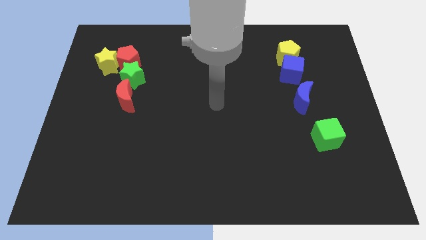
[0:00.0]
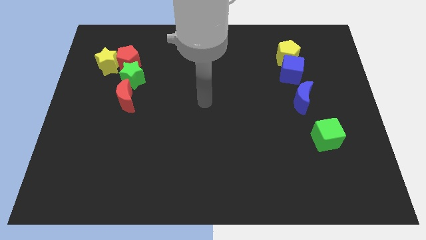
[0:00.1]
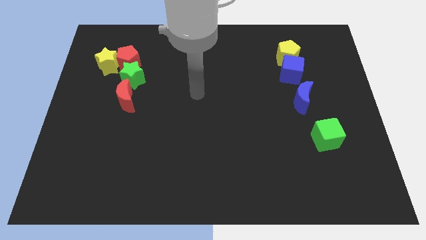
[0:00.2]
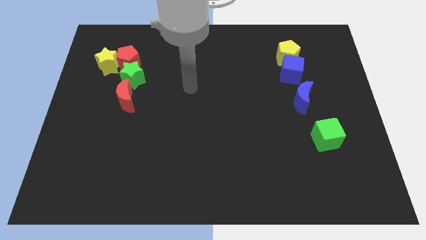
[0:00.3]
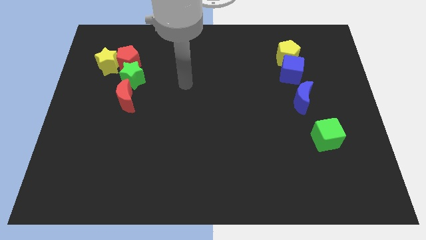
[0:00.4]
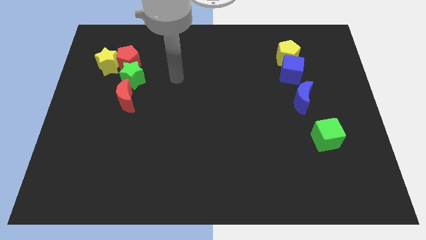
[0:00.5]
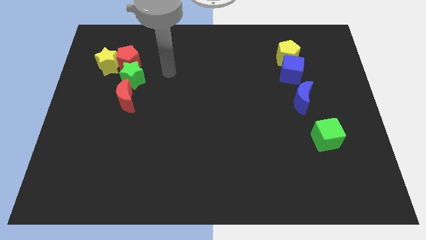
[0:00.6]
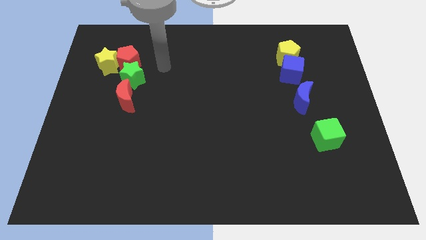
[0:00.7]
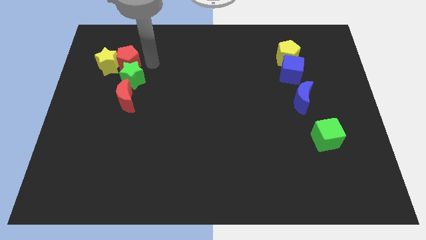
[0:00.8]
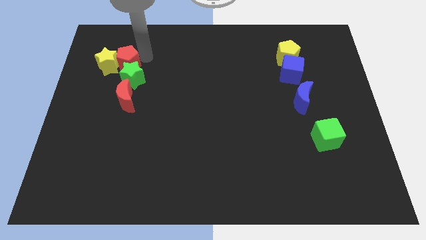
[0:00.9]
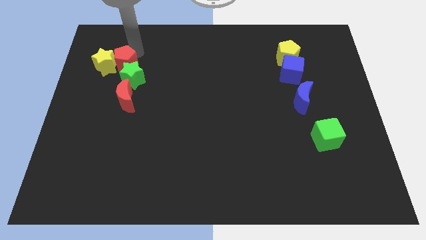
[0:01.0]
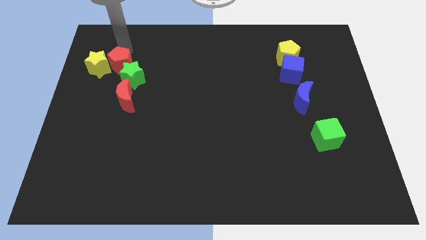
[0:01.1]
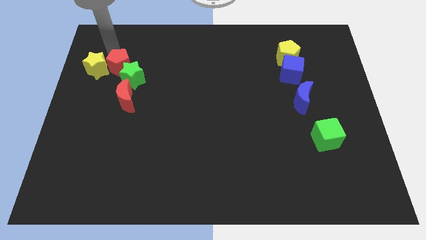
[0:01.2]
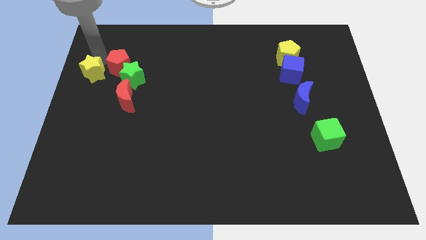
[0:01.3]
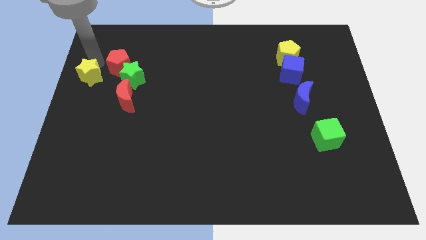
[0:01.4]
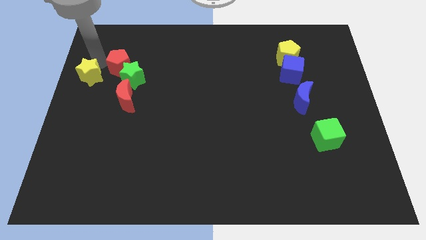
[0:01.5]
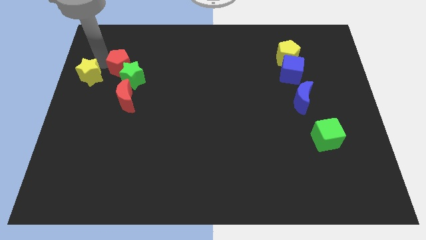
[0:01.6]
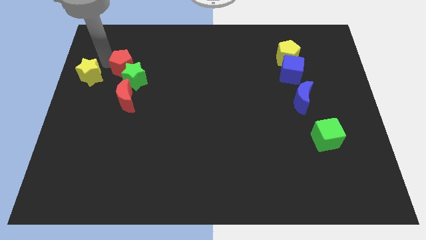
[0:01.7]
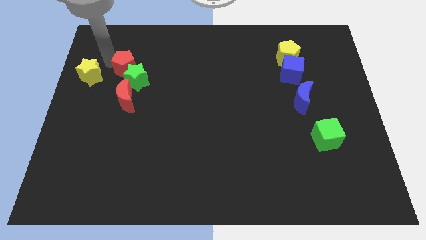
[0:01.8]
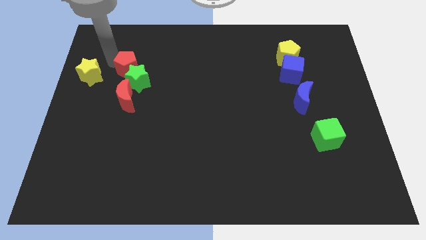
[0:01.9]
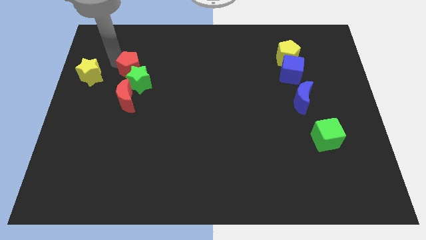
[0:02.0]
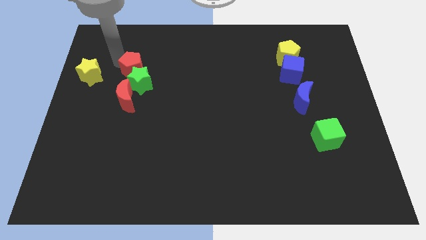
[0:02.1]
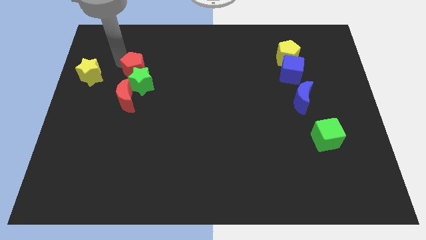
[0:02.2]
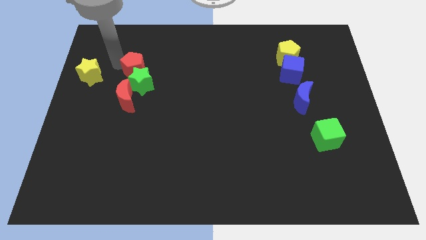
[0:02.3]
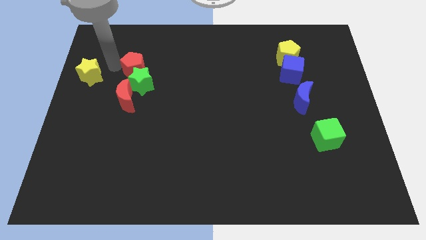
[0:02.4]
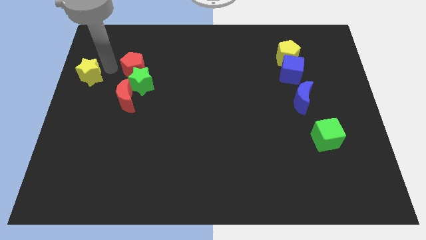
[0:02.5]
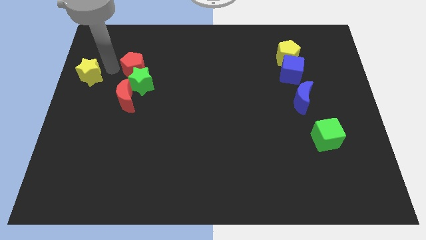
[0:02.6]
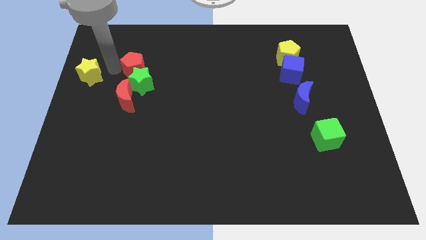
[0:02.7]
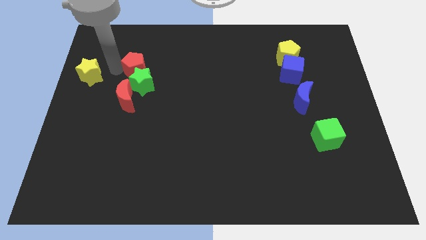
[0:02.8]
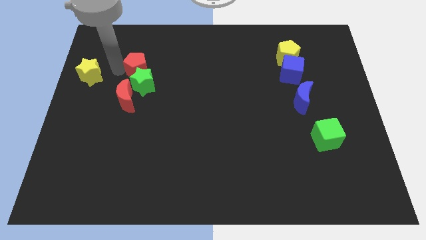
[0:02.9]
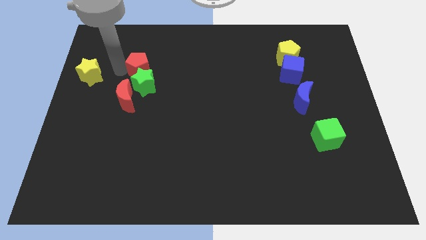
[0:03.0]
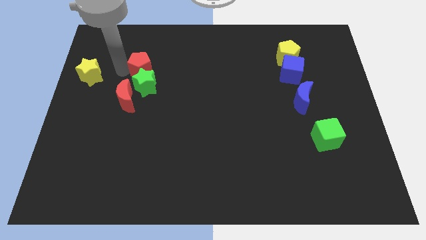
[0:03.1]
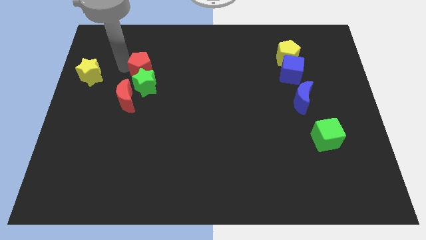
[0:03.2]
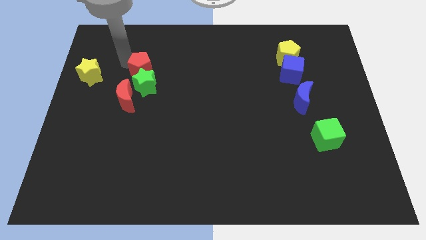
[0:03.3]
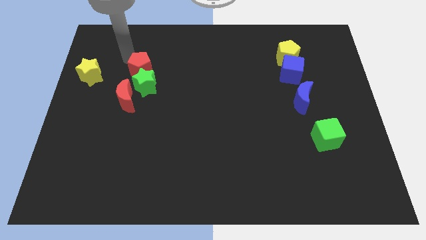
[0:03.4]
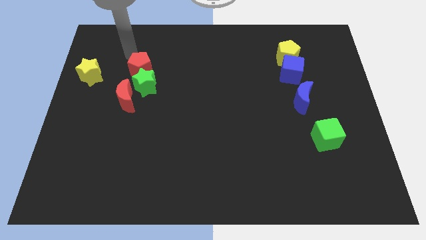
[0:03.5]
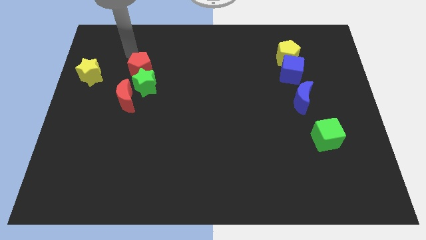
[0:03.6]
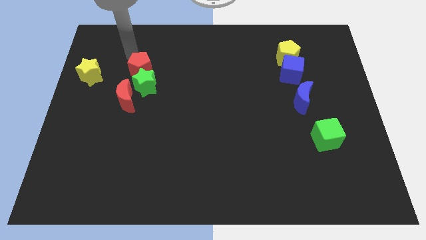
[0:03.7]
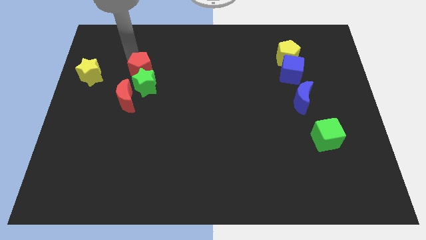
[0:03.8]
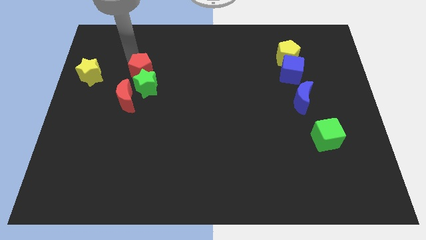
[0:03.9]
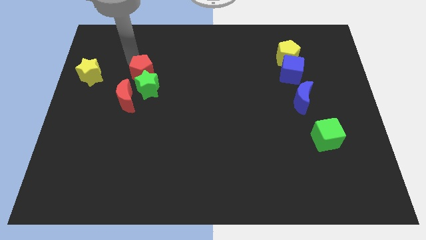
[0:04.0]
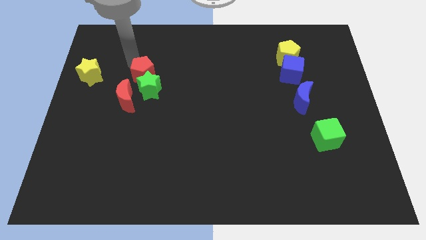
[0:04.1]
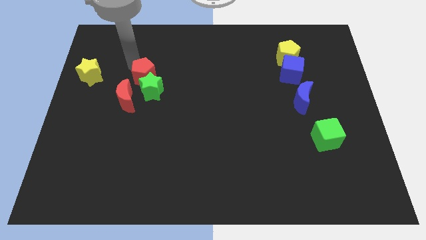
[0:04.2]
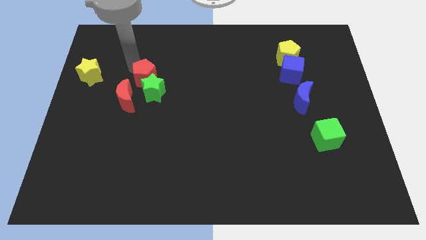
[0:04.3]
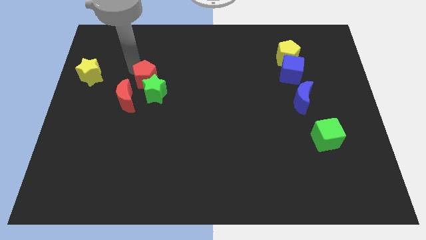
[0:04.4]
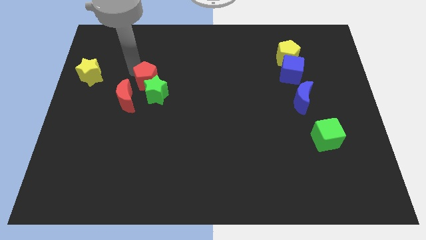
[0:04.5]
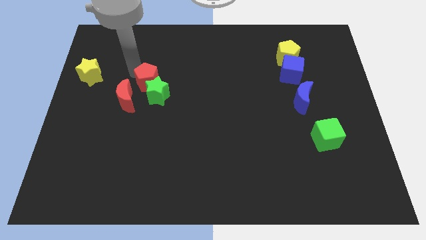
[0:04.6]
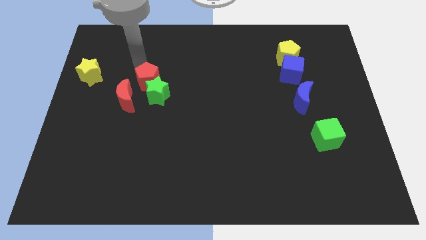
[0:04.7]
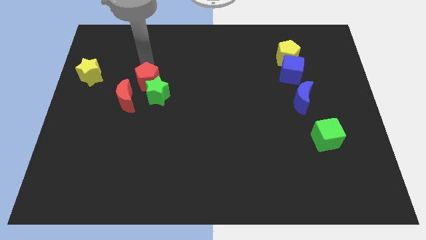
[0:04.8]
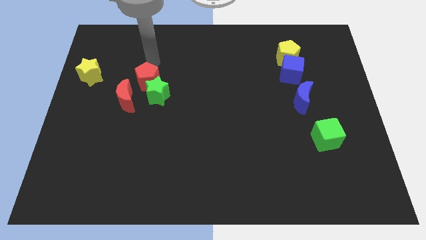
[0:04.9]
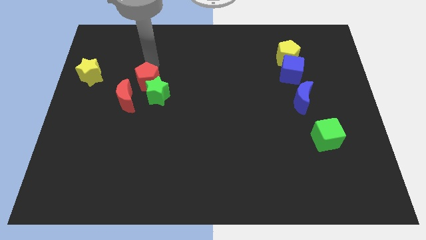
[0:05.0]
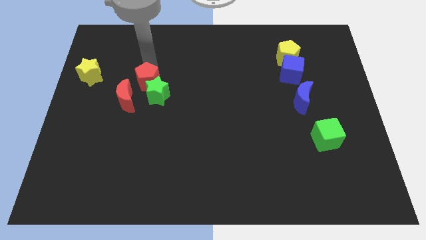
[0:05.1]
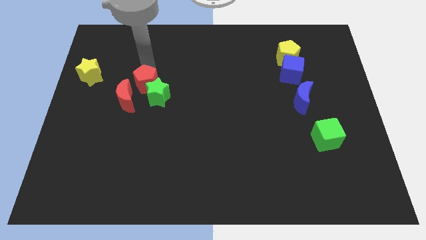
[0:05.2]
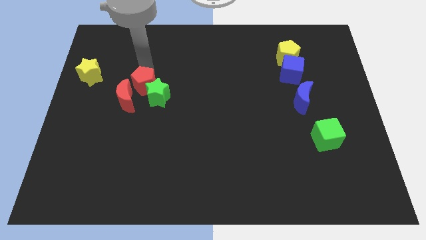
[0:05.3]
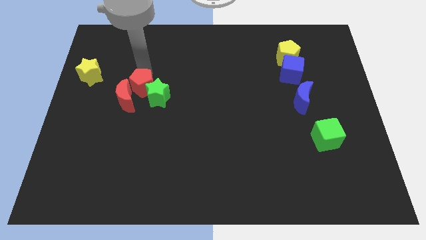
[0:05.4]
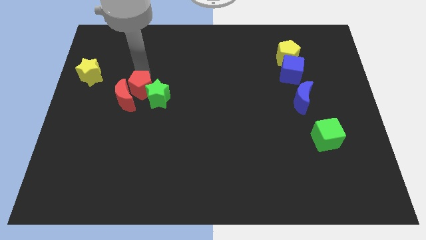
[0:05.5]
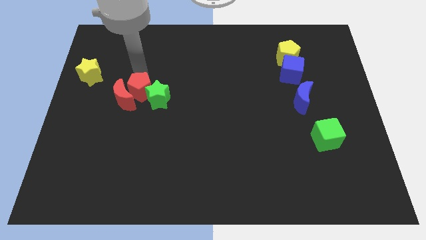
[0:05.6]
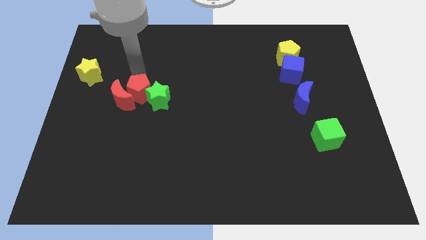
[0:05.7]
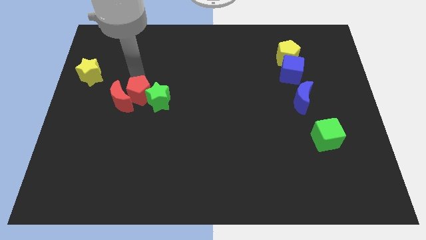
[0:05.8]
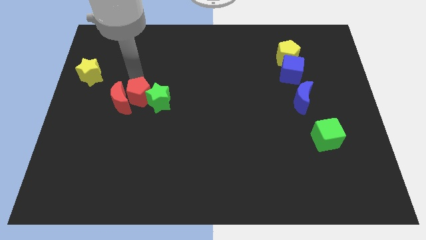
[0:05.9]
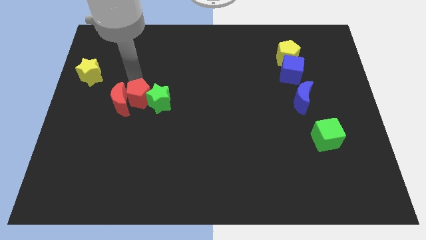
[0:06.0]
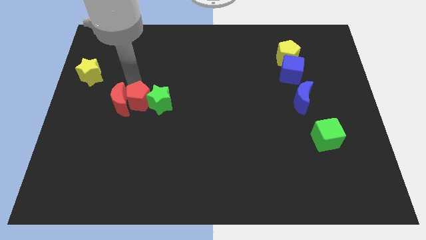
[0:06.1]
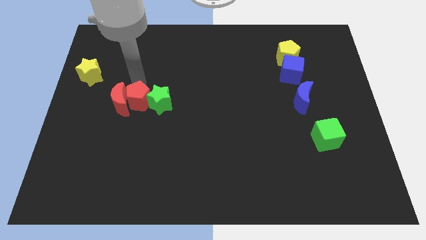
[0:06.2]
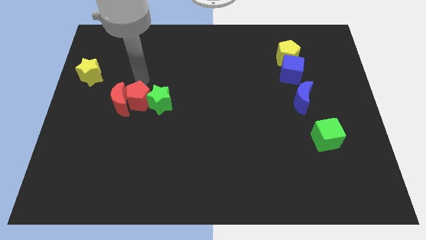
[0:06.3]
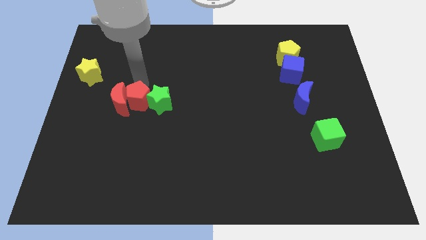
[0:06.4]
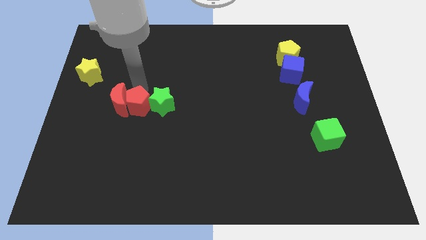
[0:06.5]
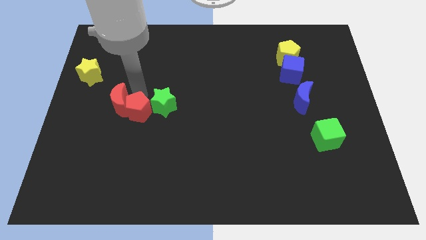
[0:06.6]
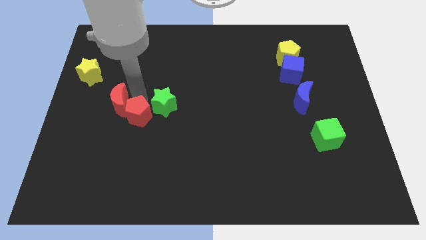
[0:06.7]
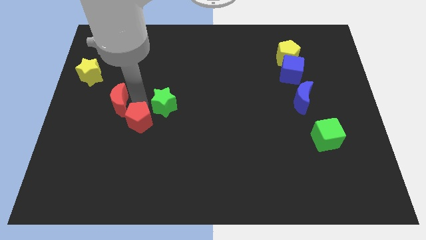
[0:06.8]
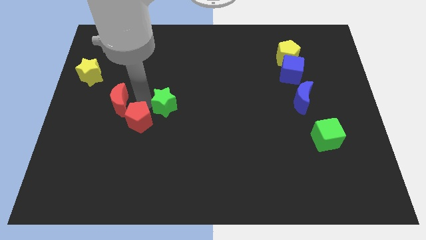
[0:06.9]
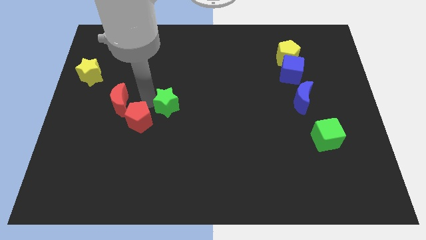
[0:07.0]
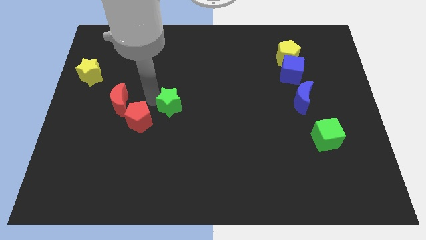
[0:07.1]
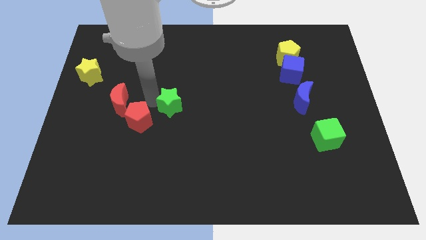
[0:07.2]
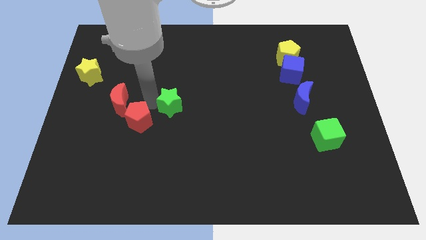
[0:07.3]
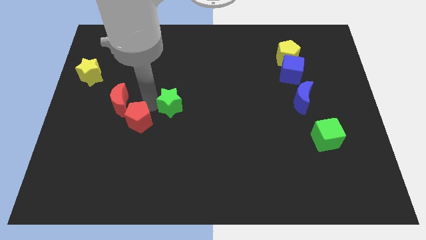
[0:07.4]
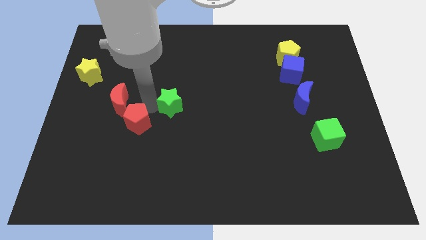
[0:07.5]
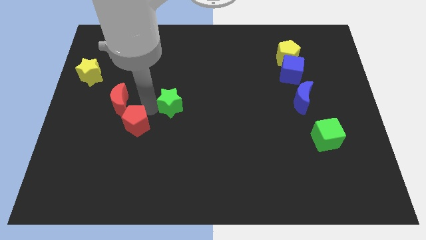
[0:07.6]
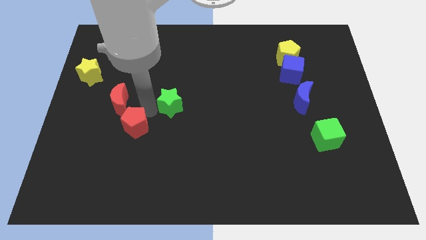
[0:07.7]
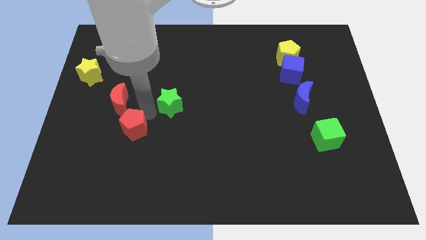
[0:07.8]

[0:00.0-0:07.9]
slide the red pentagon downwards
